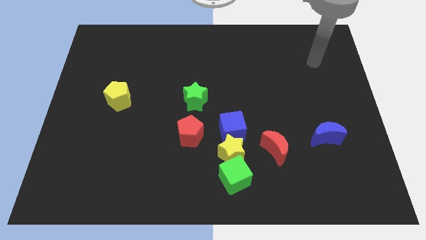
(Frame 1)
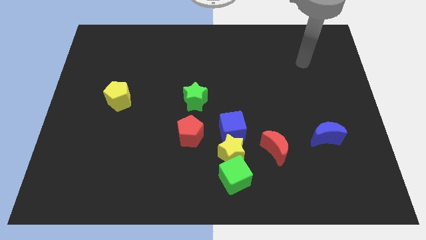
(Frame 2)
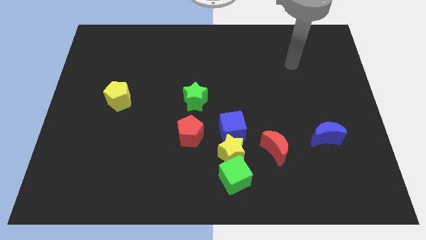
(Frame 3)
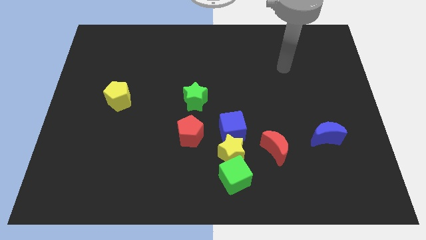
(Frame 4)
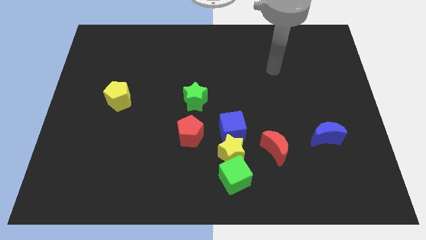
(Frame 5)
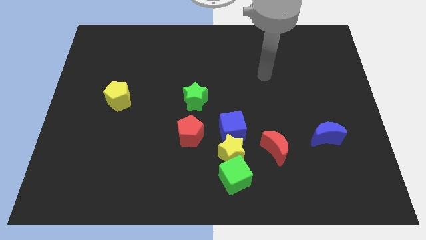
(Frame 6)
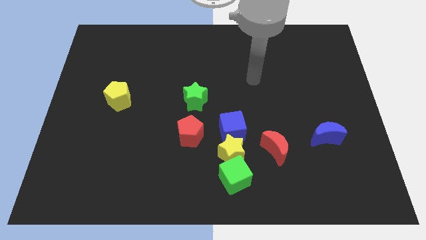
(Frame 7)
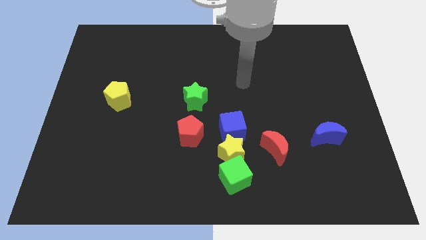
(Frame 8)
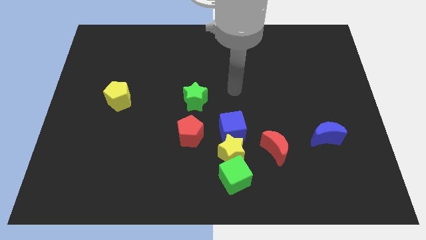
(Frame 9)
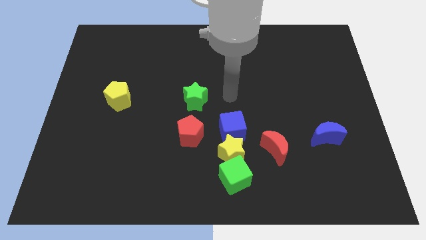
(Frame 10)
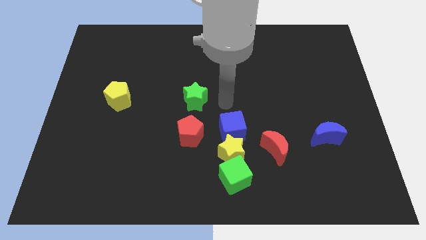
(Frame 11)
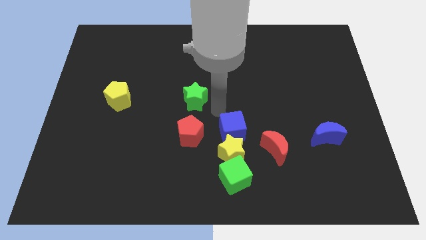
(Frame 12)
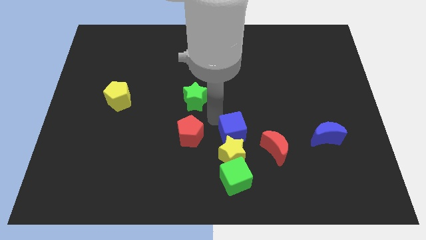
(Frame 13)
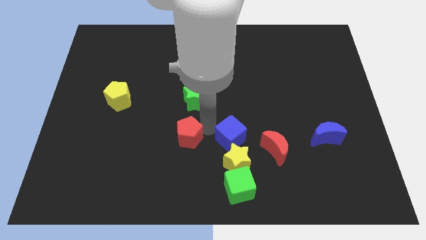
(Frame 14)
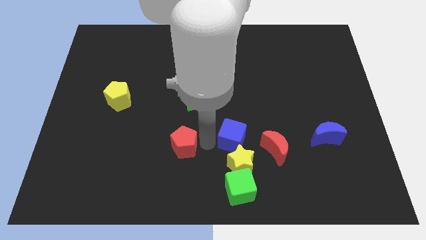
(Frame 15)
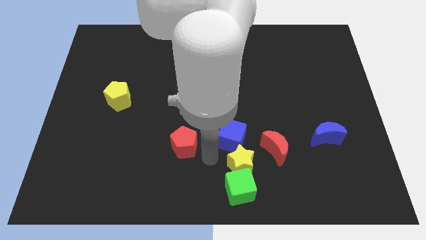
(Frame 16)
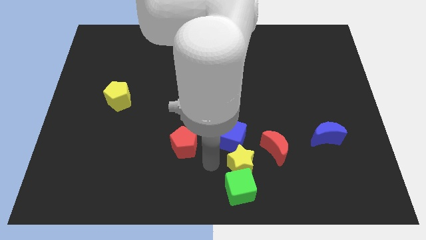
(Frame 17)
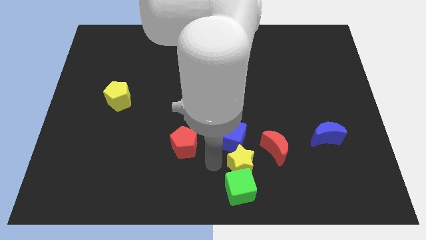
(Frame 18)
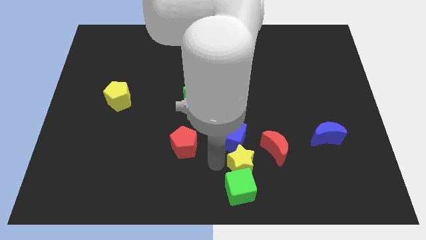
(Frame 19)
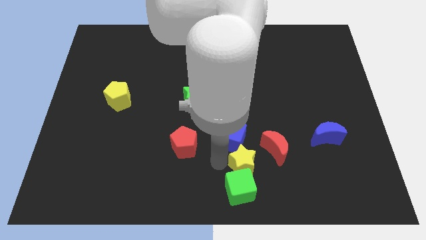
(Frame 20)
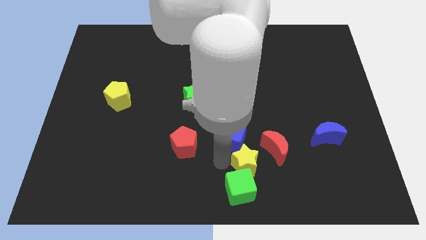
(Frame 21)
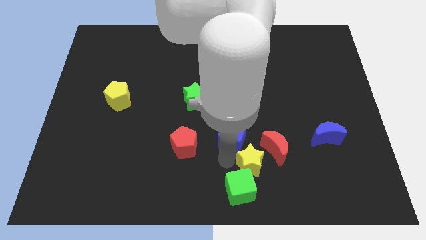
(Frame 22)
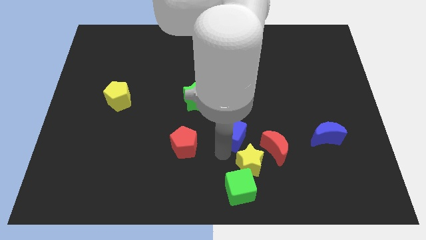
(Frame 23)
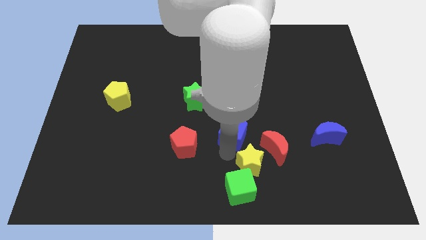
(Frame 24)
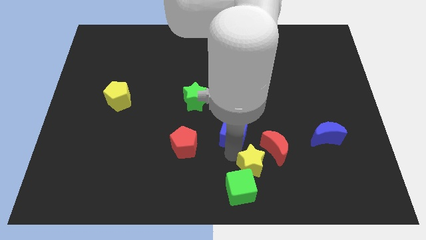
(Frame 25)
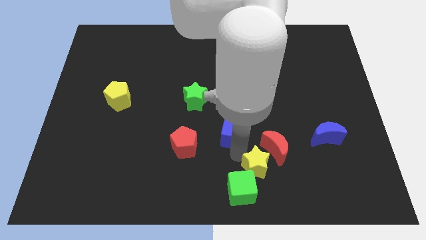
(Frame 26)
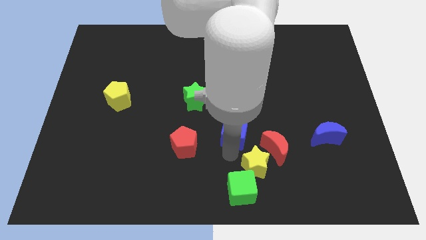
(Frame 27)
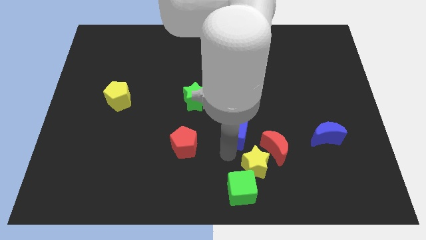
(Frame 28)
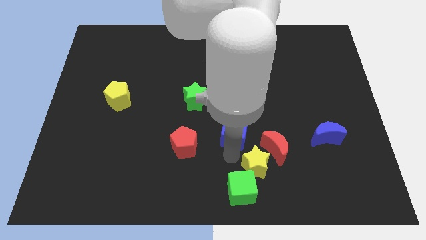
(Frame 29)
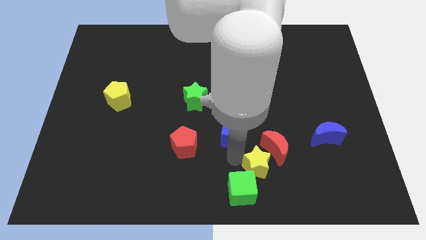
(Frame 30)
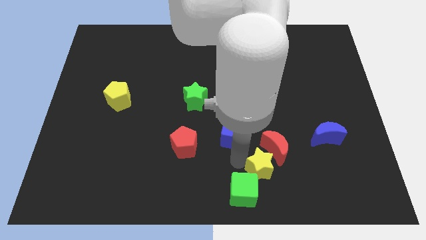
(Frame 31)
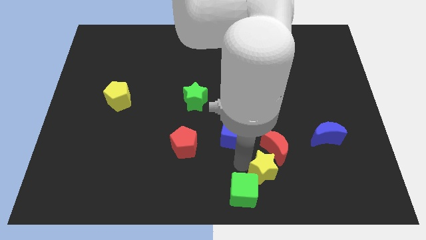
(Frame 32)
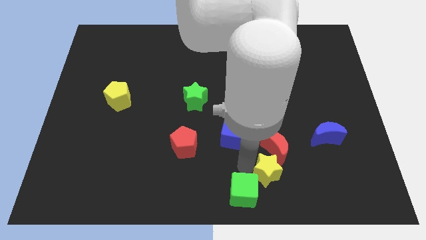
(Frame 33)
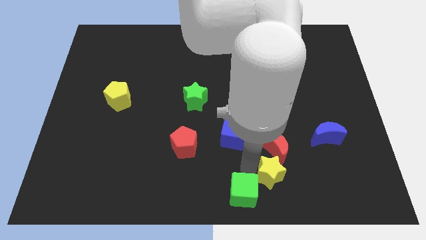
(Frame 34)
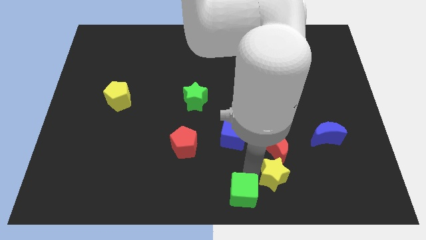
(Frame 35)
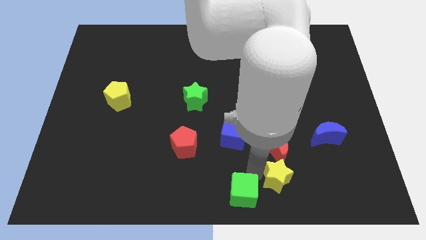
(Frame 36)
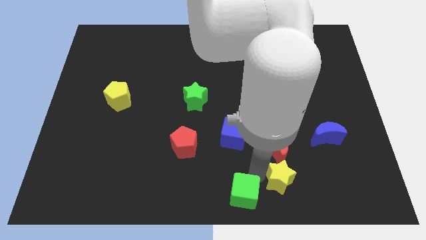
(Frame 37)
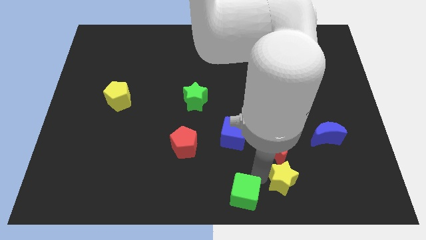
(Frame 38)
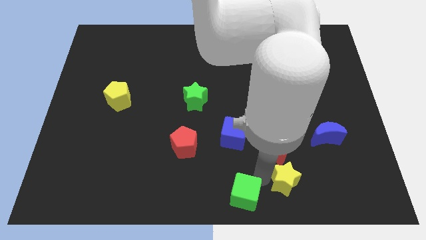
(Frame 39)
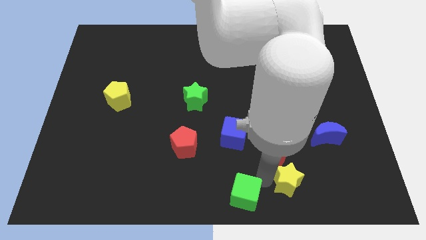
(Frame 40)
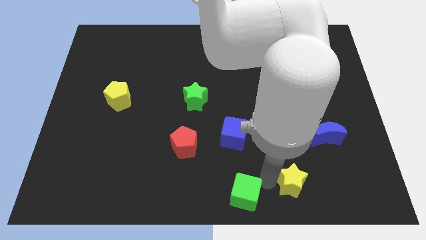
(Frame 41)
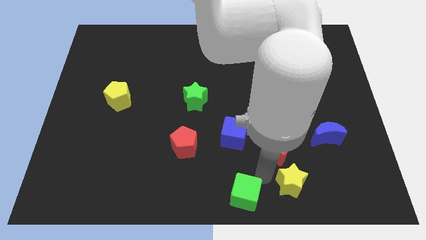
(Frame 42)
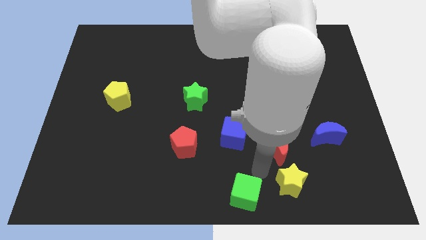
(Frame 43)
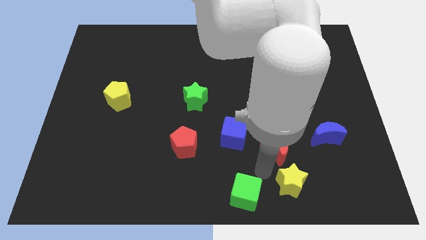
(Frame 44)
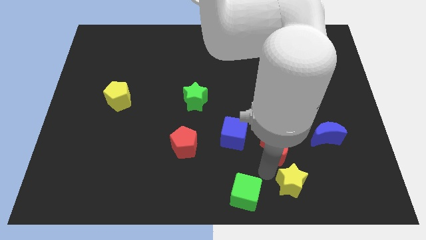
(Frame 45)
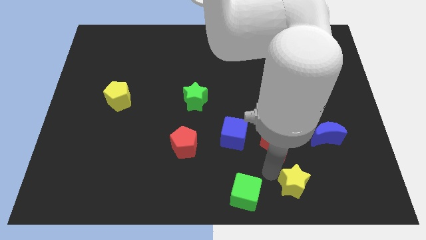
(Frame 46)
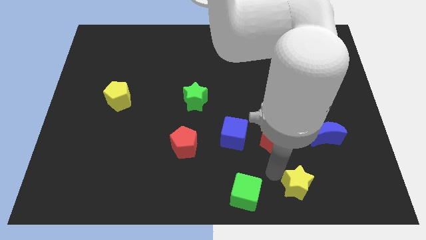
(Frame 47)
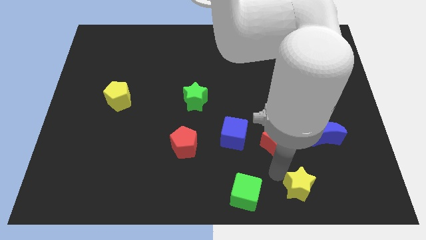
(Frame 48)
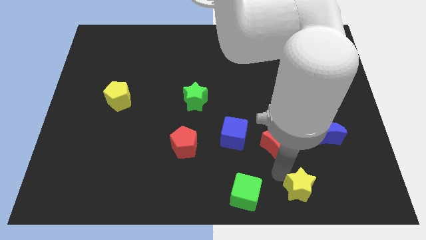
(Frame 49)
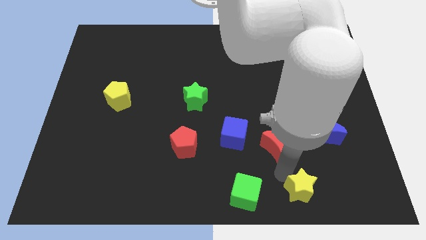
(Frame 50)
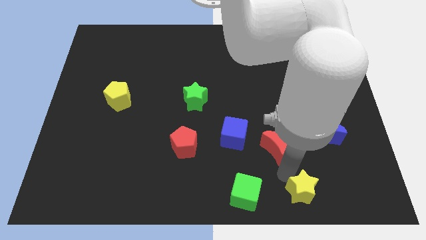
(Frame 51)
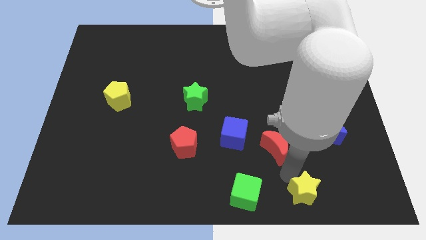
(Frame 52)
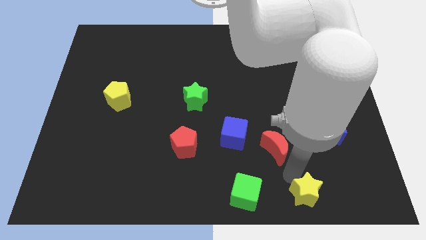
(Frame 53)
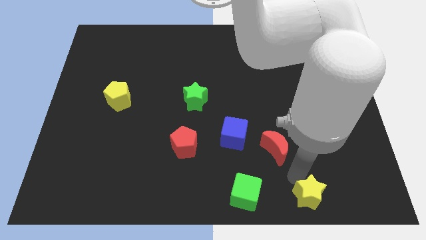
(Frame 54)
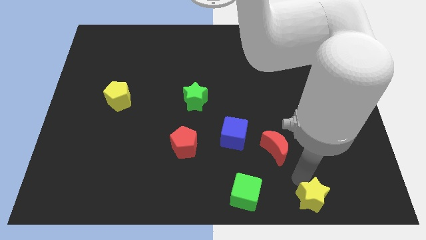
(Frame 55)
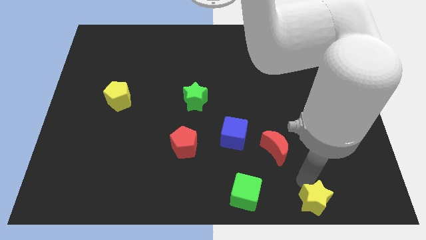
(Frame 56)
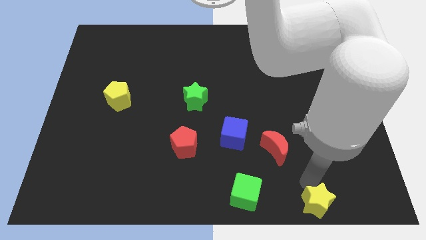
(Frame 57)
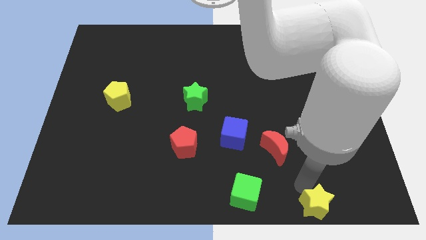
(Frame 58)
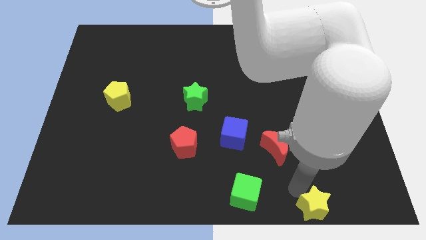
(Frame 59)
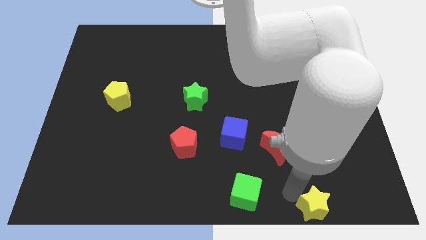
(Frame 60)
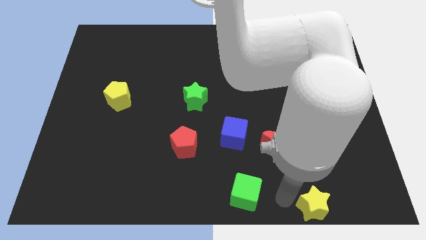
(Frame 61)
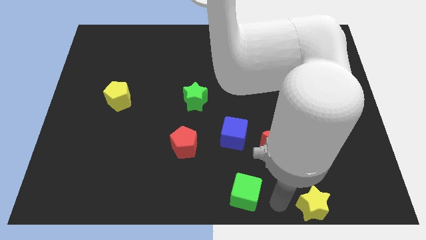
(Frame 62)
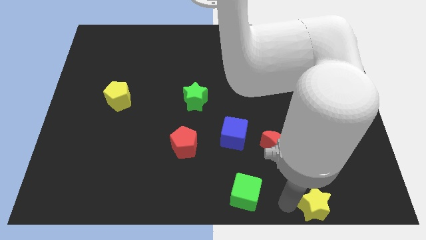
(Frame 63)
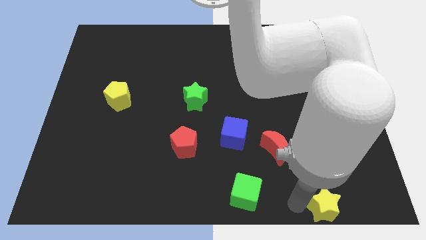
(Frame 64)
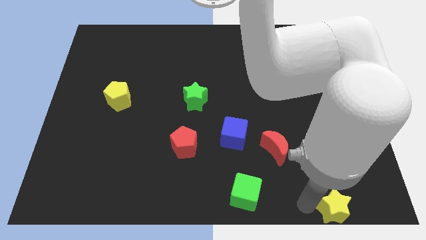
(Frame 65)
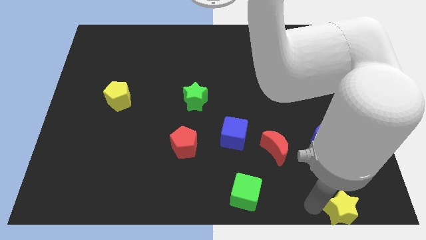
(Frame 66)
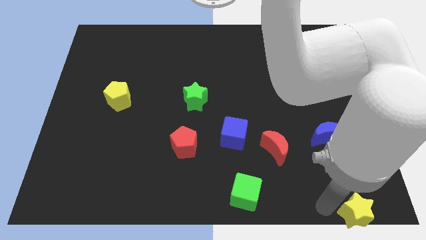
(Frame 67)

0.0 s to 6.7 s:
push the yellow star to the bottom right of the board

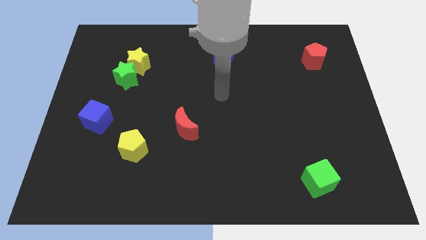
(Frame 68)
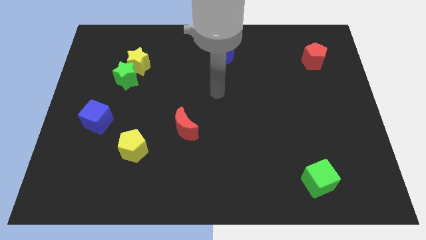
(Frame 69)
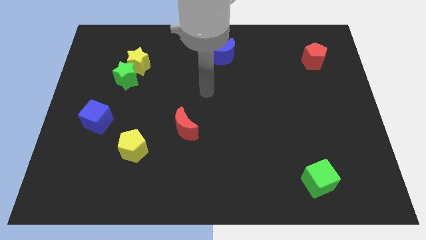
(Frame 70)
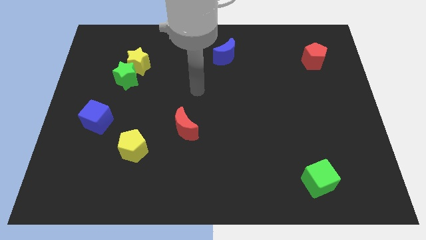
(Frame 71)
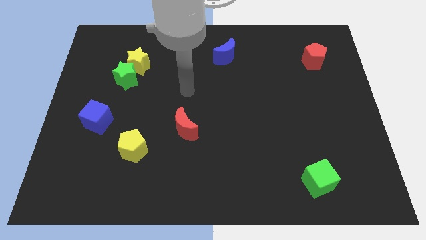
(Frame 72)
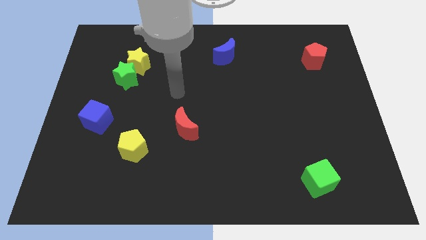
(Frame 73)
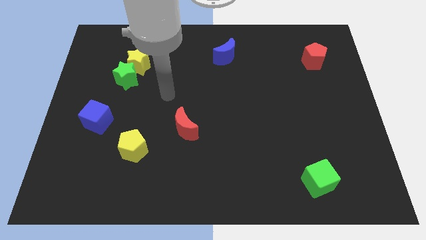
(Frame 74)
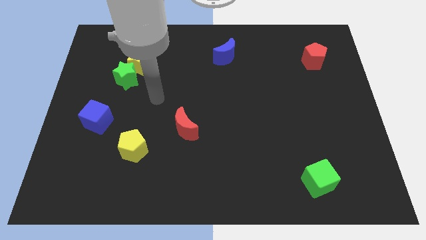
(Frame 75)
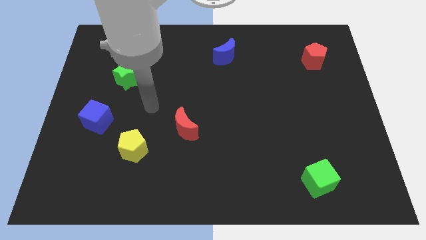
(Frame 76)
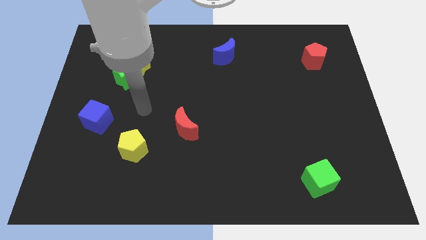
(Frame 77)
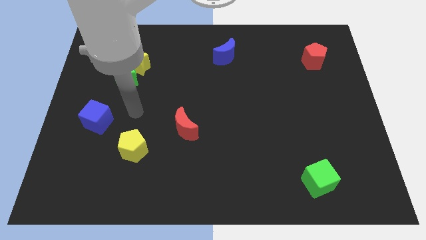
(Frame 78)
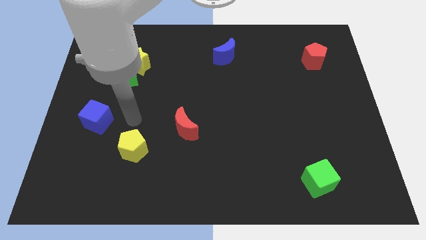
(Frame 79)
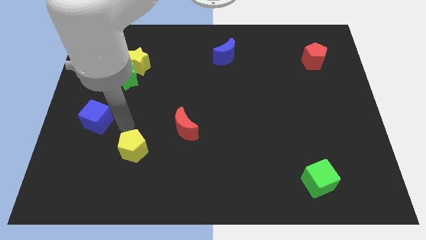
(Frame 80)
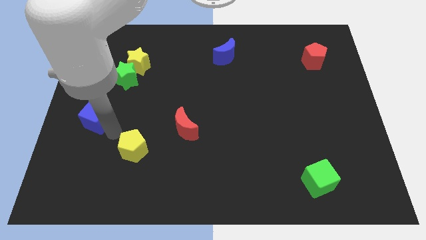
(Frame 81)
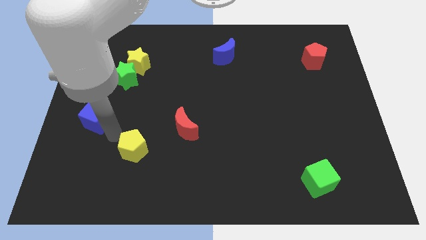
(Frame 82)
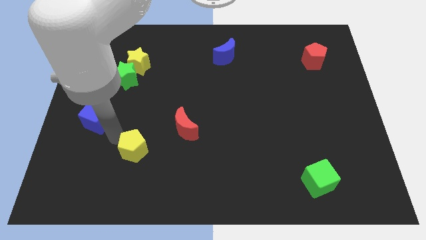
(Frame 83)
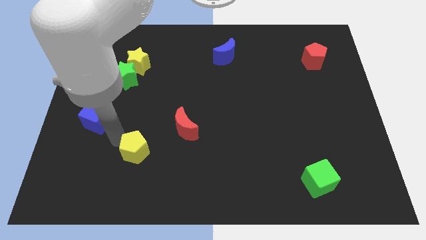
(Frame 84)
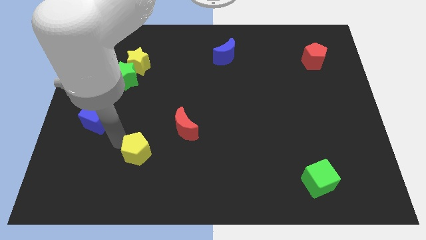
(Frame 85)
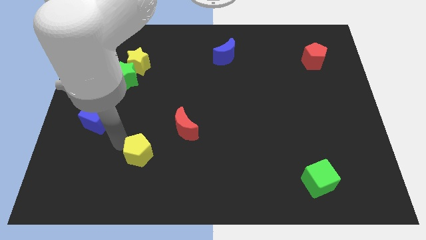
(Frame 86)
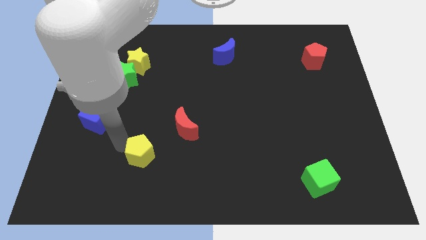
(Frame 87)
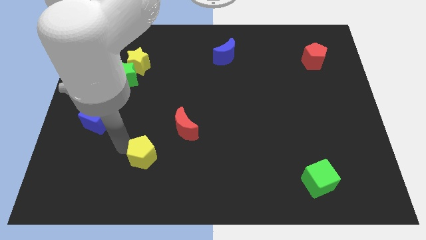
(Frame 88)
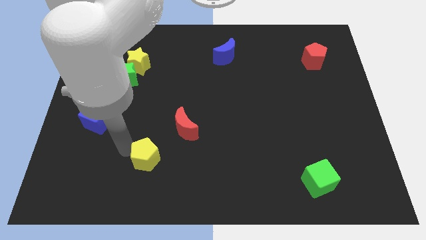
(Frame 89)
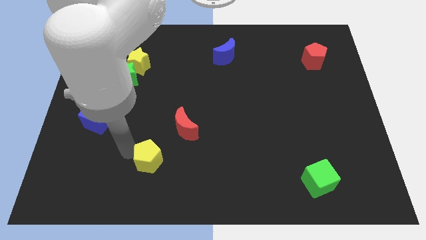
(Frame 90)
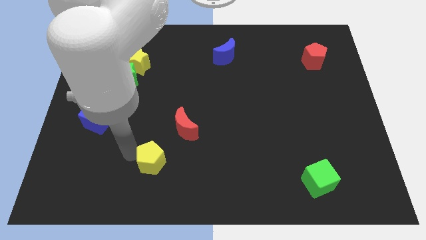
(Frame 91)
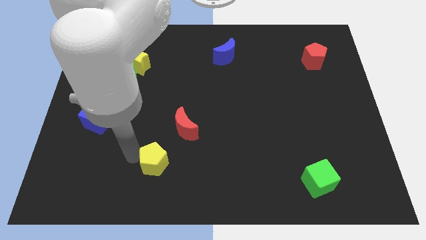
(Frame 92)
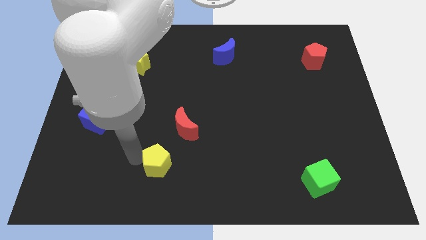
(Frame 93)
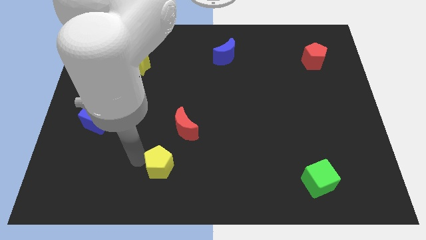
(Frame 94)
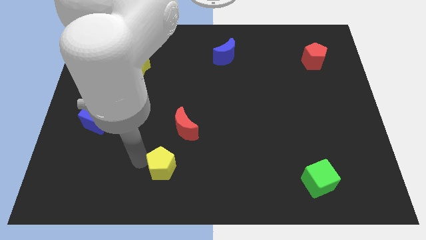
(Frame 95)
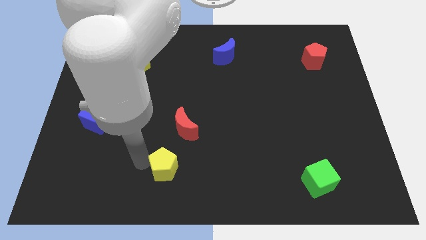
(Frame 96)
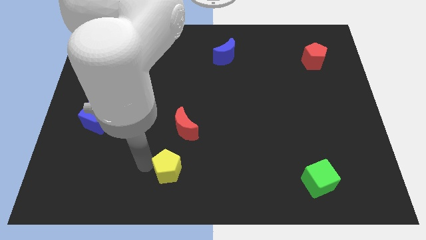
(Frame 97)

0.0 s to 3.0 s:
slide the yellow pentagon to the bottom side
